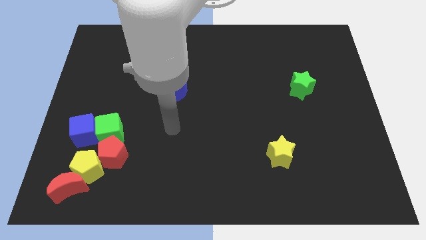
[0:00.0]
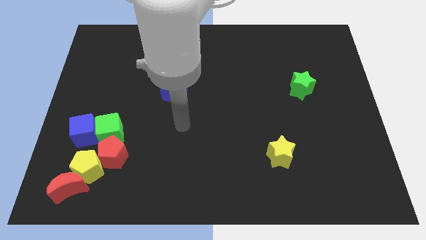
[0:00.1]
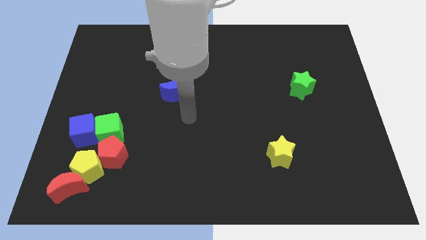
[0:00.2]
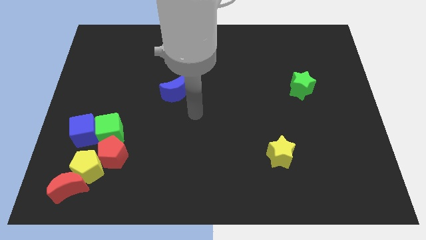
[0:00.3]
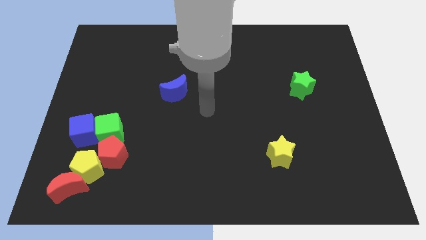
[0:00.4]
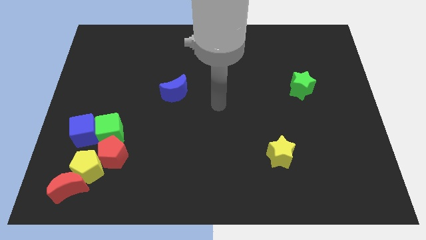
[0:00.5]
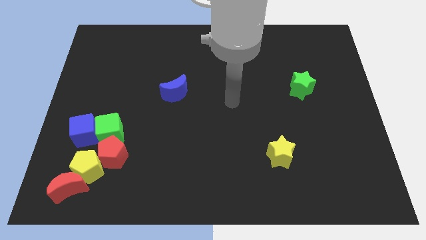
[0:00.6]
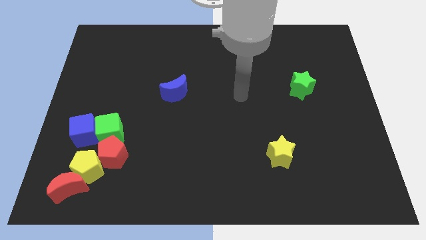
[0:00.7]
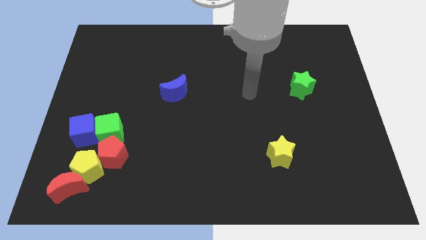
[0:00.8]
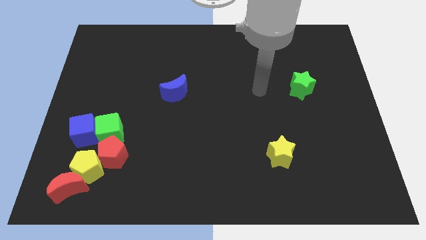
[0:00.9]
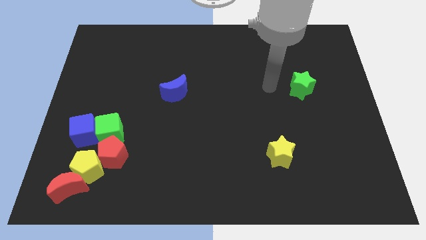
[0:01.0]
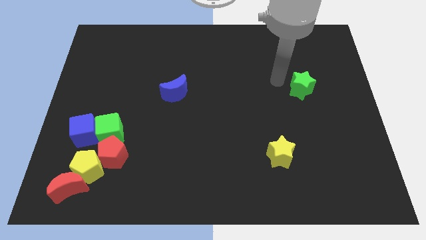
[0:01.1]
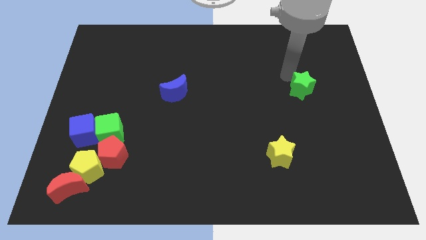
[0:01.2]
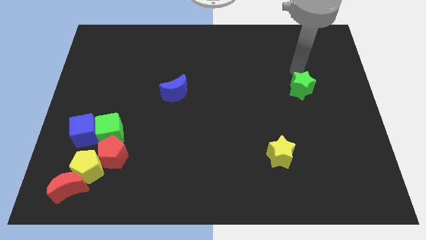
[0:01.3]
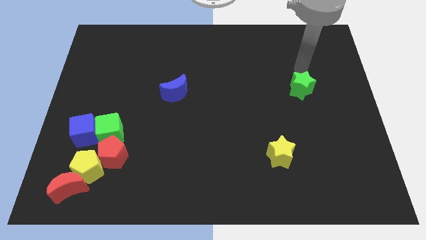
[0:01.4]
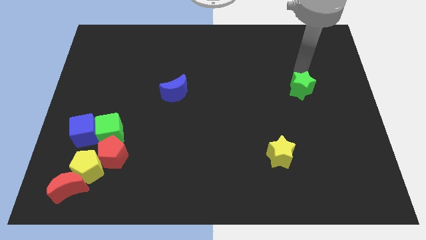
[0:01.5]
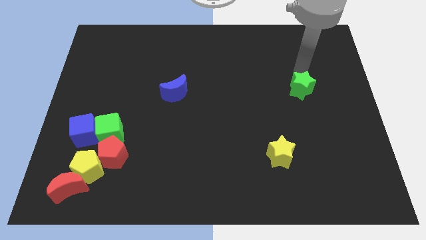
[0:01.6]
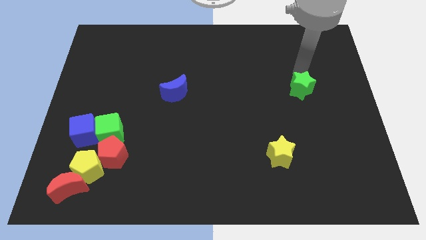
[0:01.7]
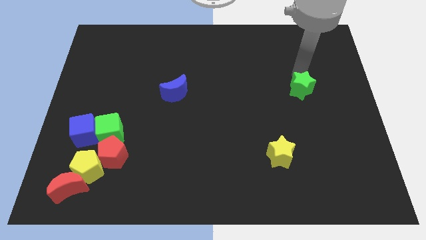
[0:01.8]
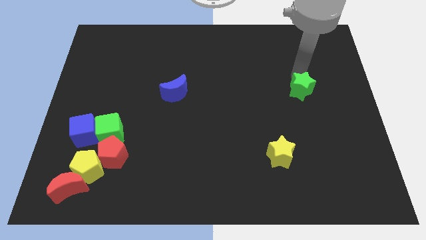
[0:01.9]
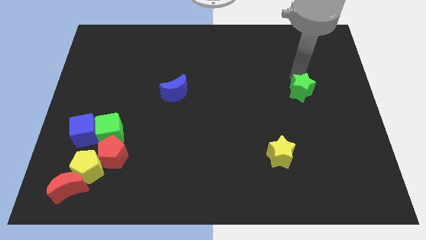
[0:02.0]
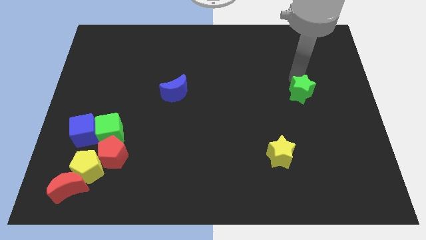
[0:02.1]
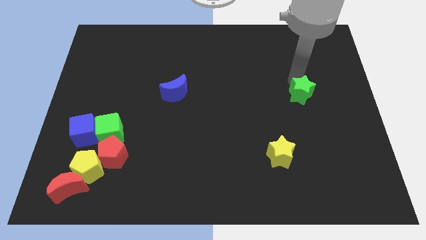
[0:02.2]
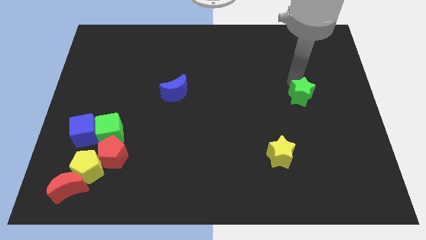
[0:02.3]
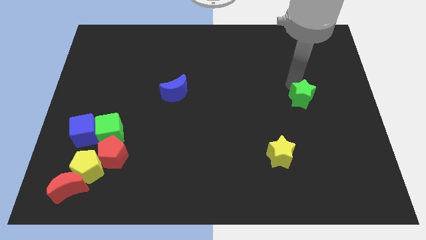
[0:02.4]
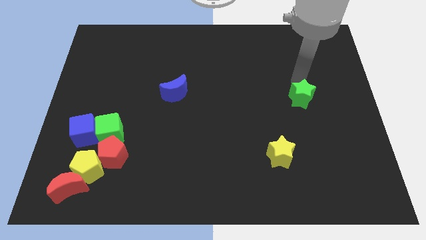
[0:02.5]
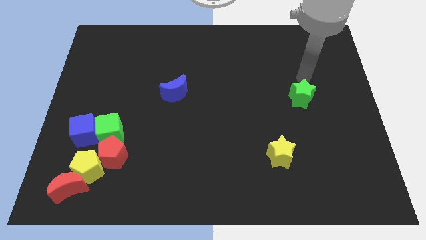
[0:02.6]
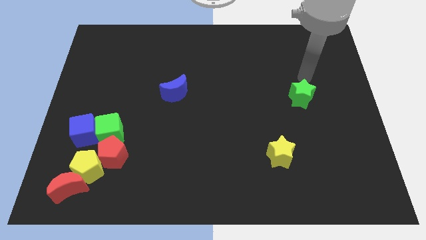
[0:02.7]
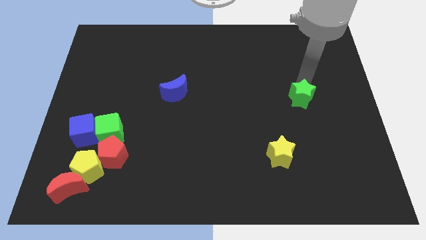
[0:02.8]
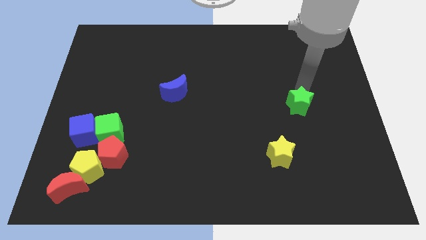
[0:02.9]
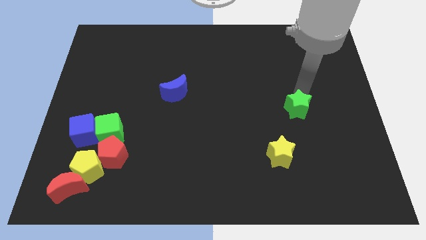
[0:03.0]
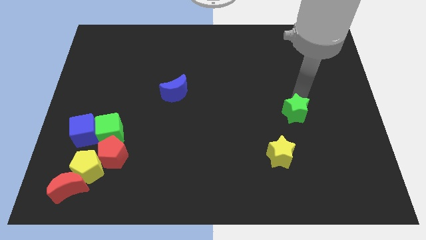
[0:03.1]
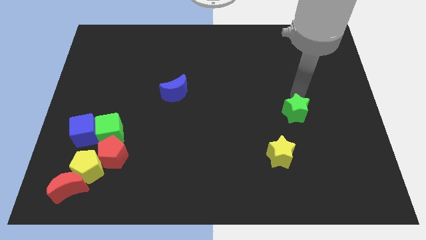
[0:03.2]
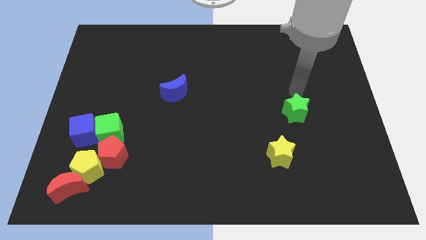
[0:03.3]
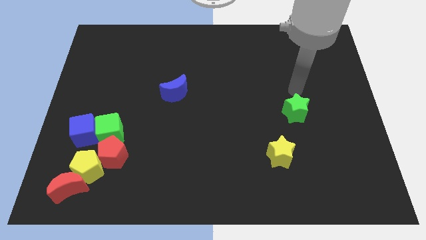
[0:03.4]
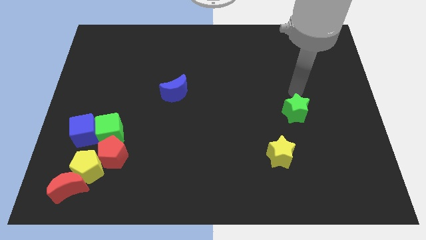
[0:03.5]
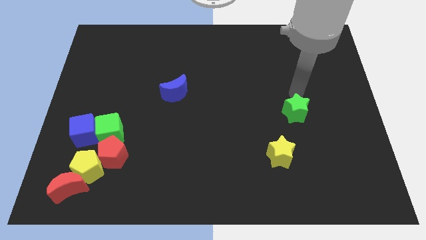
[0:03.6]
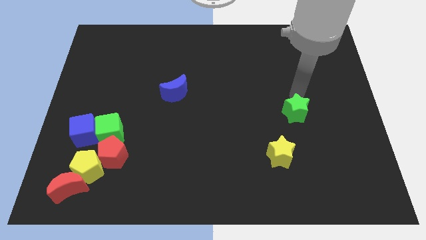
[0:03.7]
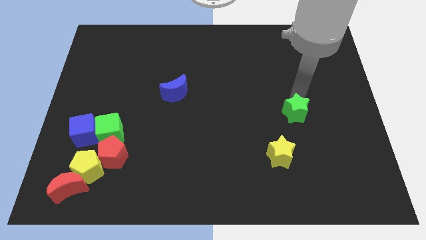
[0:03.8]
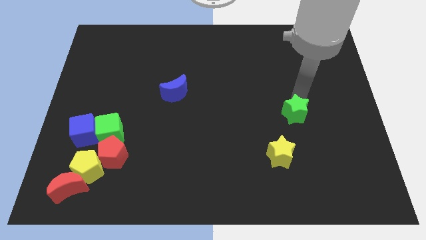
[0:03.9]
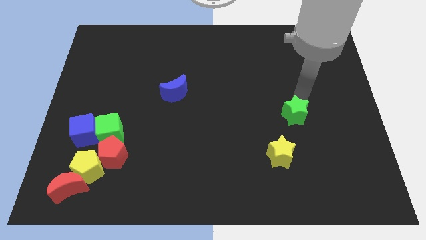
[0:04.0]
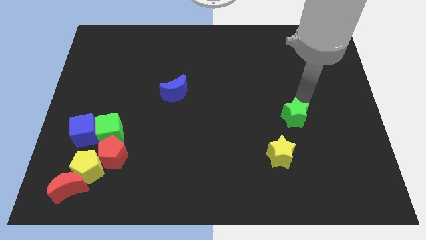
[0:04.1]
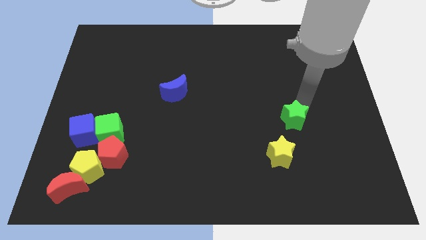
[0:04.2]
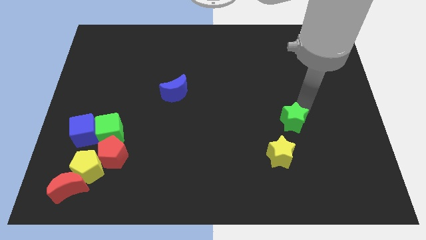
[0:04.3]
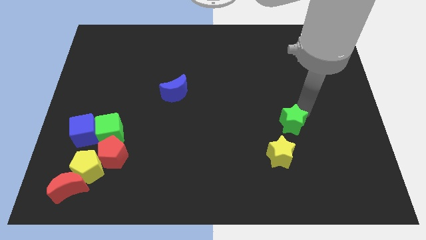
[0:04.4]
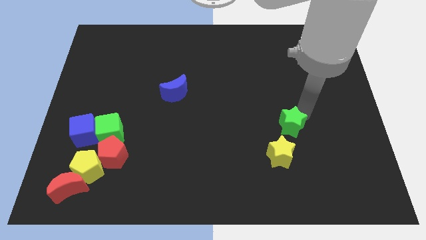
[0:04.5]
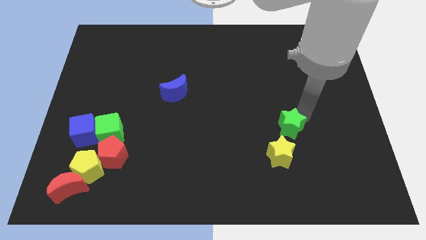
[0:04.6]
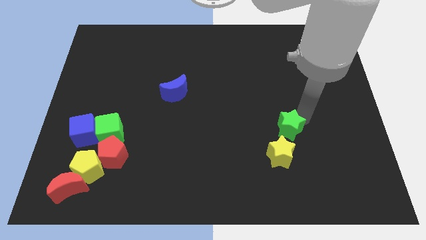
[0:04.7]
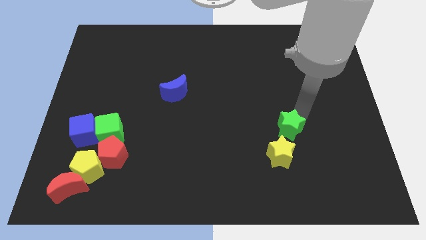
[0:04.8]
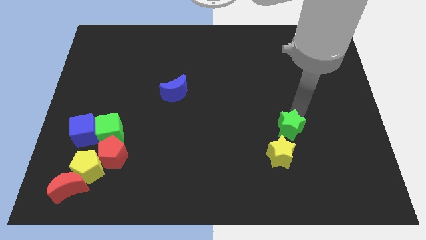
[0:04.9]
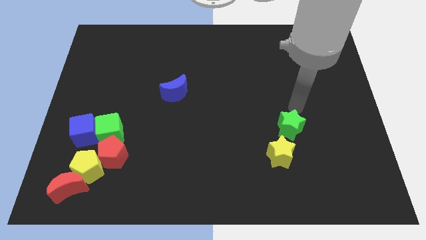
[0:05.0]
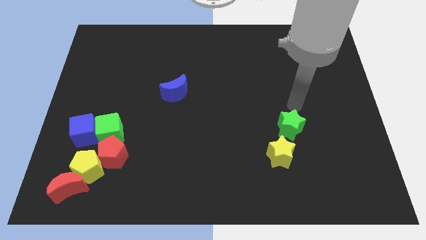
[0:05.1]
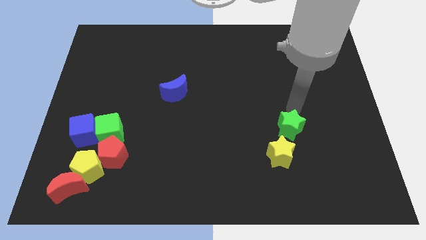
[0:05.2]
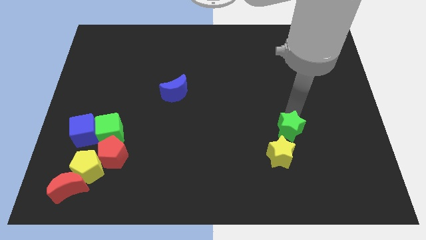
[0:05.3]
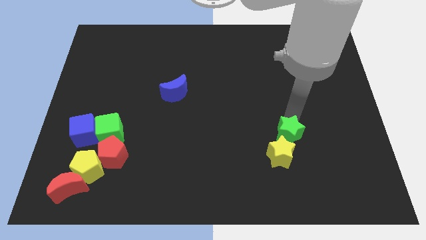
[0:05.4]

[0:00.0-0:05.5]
put the green star to the yellow star

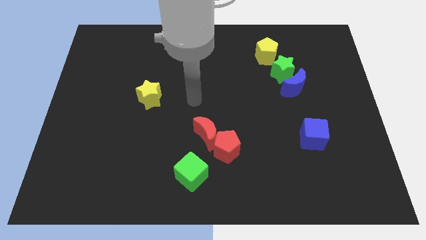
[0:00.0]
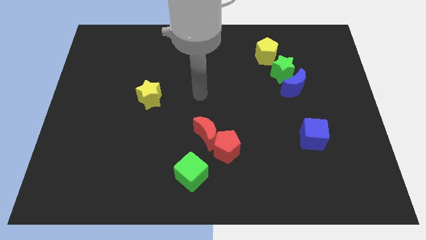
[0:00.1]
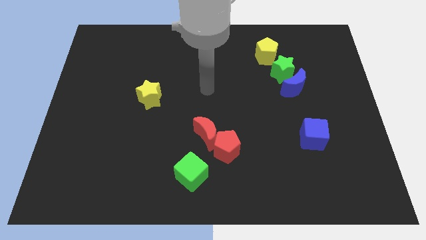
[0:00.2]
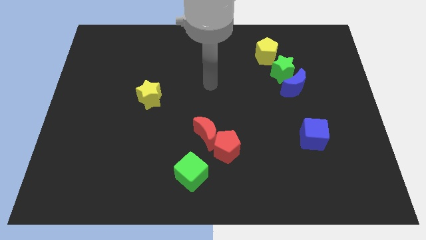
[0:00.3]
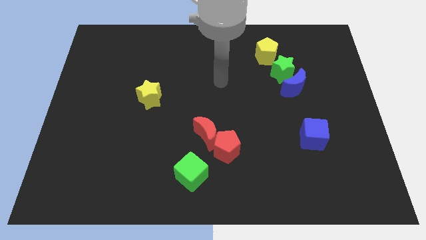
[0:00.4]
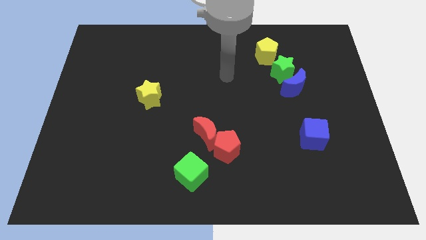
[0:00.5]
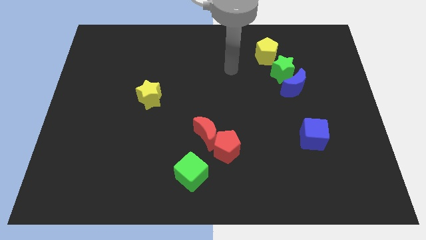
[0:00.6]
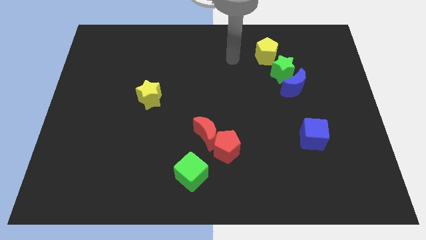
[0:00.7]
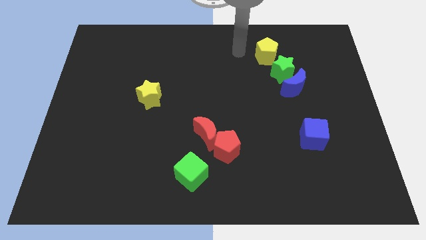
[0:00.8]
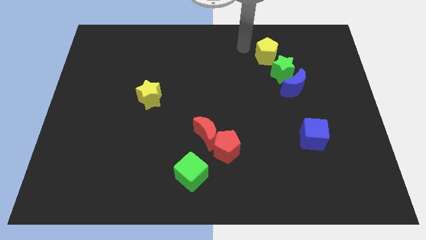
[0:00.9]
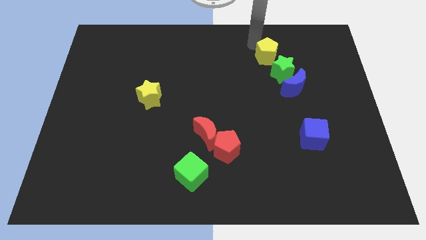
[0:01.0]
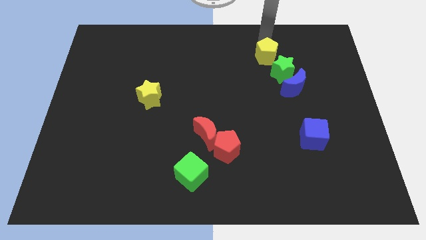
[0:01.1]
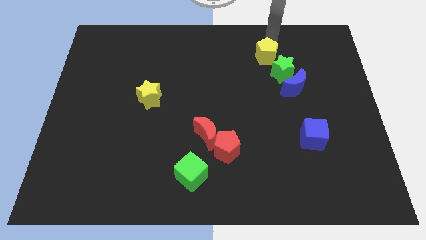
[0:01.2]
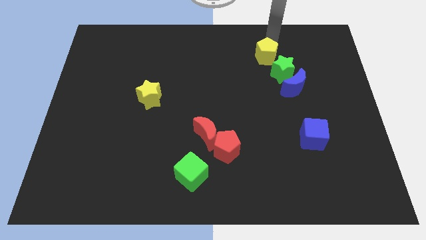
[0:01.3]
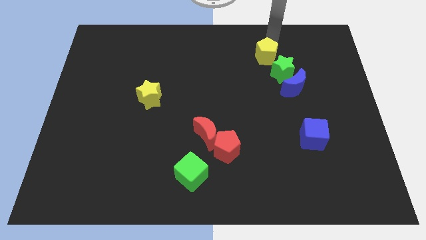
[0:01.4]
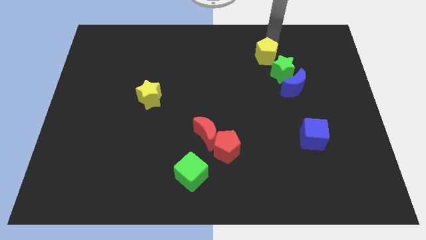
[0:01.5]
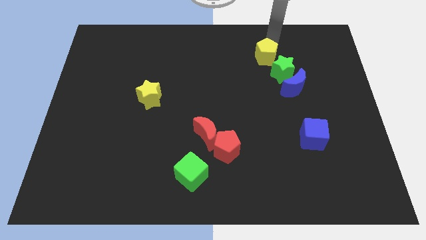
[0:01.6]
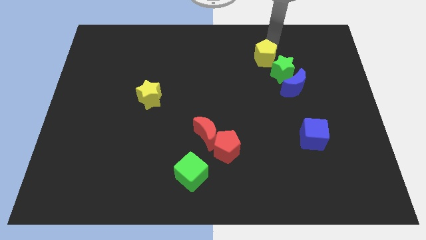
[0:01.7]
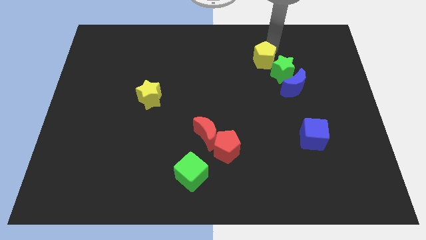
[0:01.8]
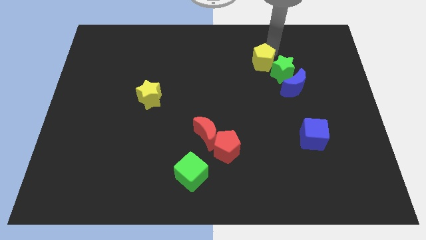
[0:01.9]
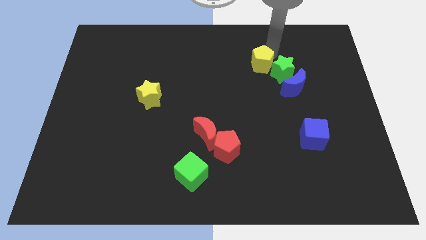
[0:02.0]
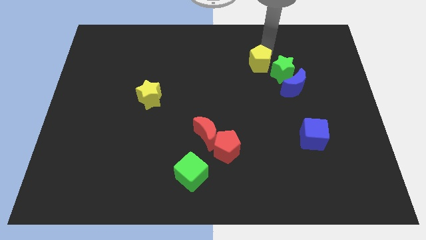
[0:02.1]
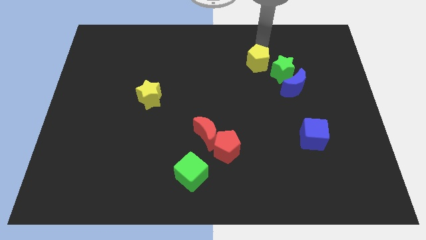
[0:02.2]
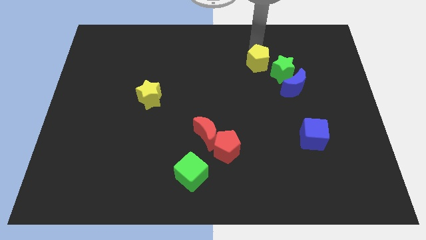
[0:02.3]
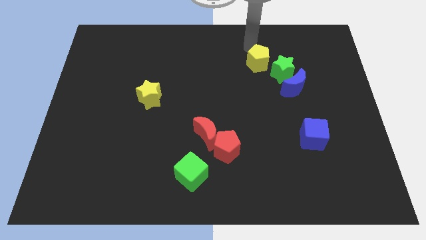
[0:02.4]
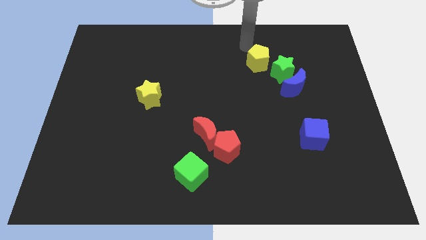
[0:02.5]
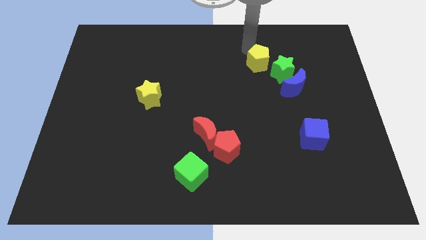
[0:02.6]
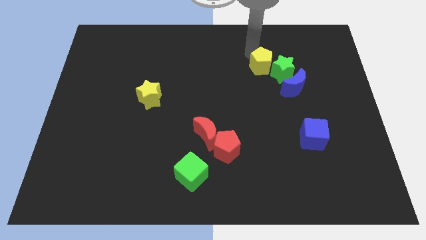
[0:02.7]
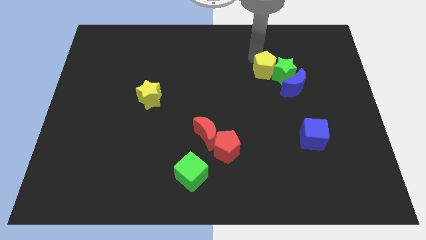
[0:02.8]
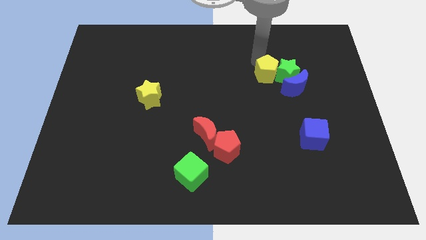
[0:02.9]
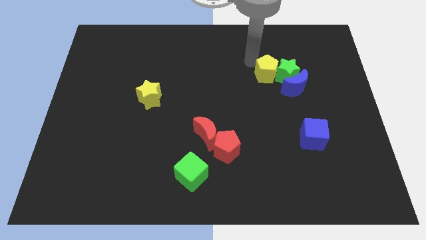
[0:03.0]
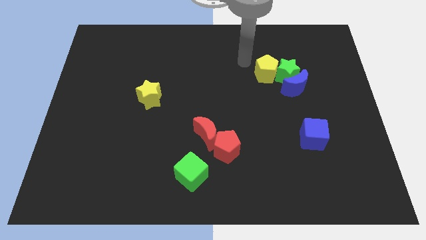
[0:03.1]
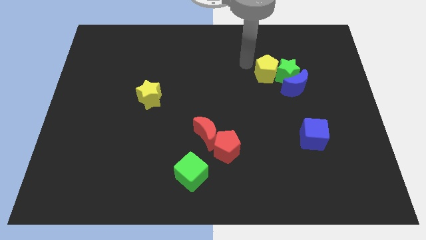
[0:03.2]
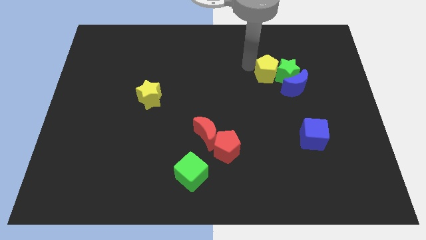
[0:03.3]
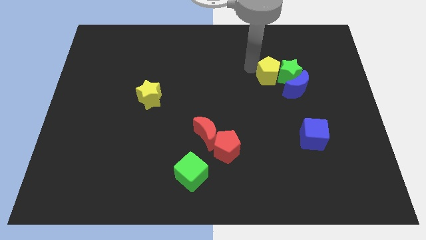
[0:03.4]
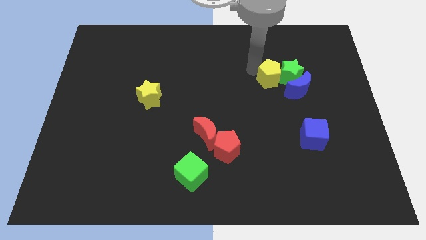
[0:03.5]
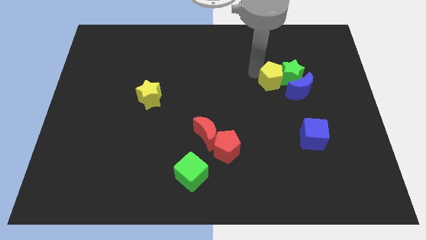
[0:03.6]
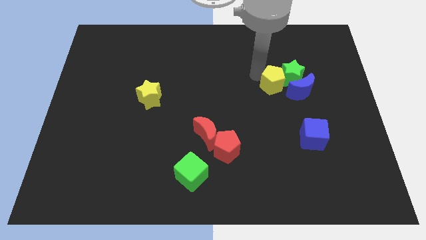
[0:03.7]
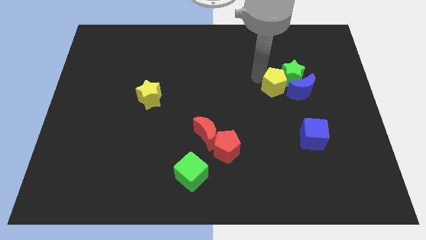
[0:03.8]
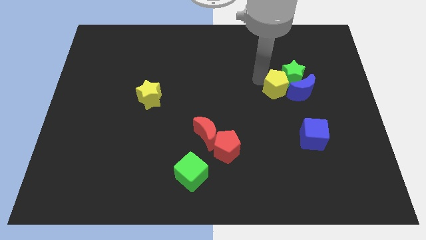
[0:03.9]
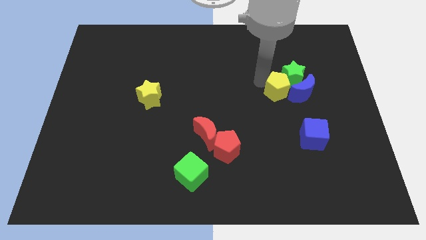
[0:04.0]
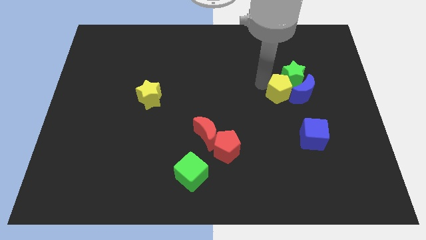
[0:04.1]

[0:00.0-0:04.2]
put the yellow pentagon to the blue moon
